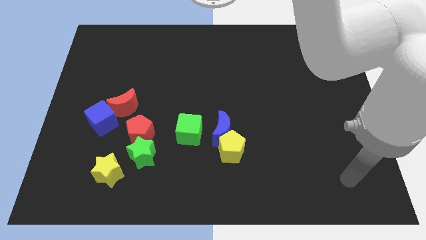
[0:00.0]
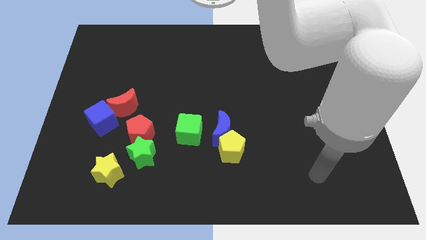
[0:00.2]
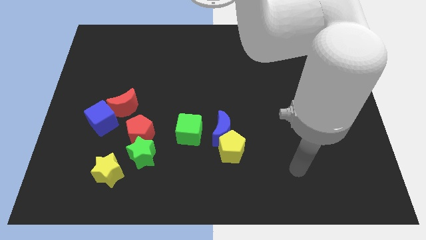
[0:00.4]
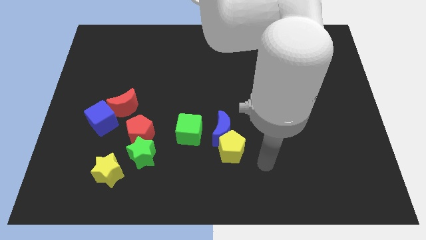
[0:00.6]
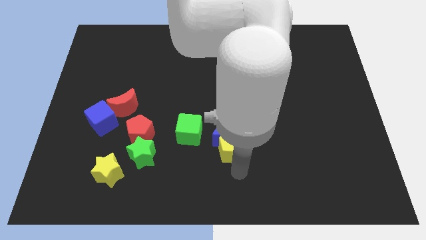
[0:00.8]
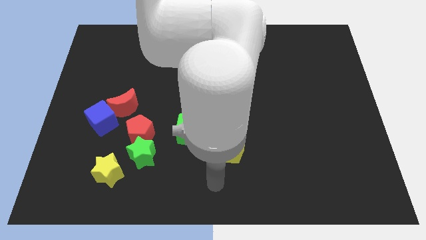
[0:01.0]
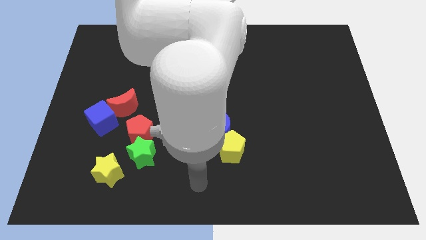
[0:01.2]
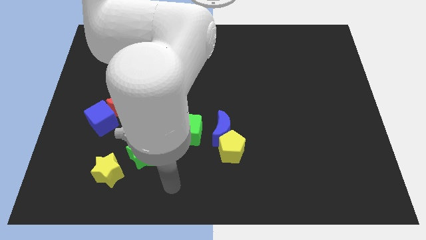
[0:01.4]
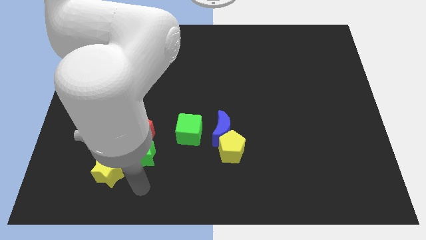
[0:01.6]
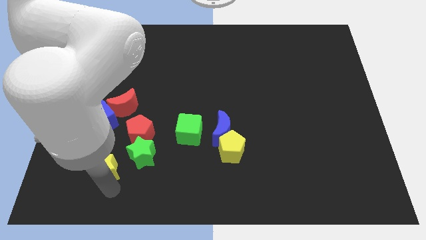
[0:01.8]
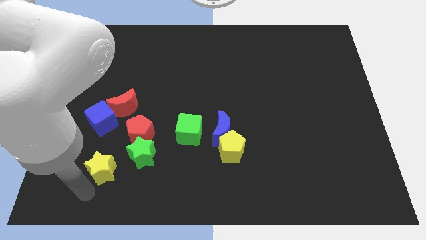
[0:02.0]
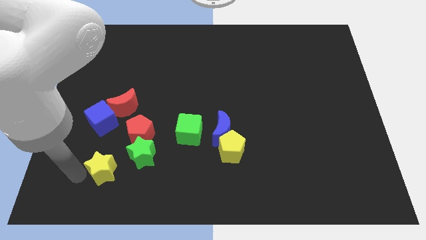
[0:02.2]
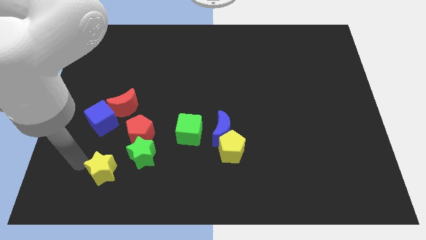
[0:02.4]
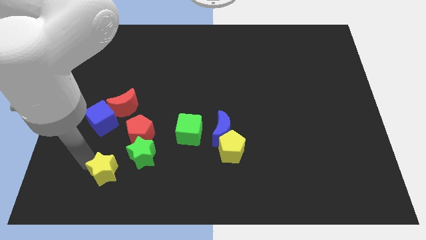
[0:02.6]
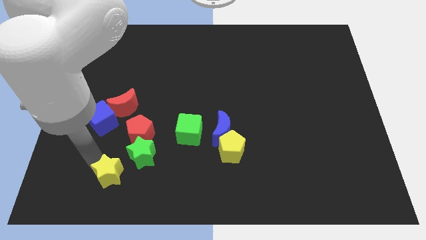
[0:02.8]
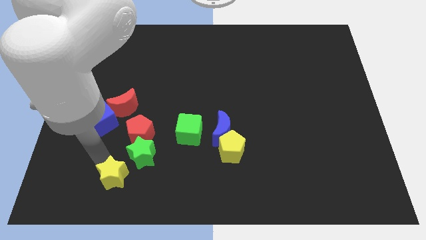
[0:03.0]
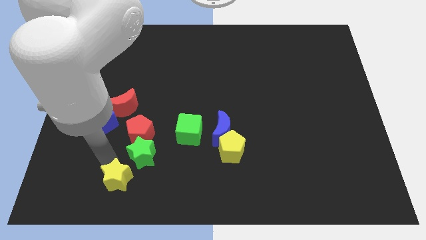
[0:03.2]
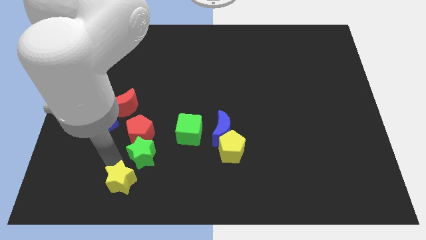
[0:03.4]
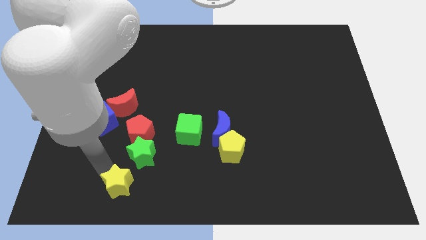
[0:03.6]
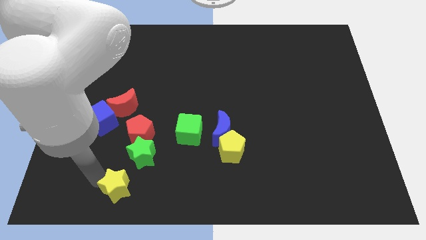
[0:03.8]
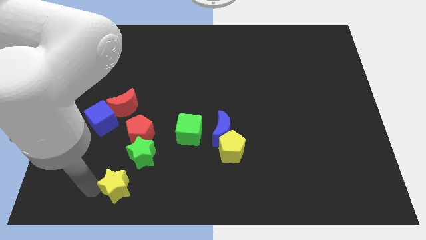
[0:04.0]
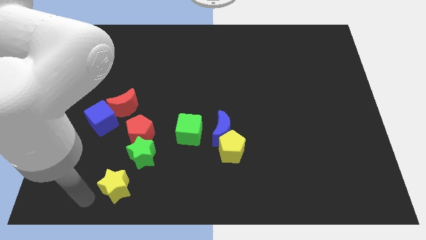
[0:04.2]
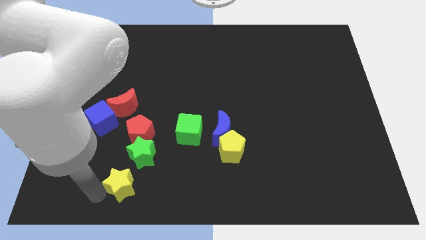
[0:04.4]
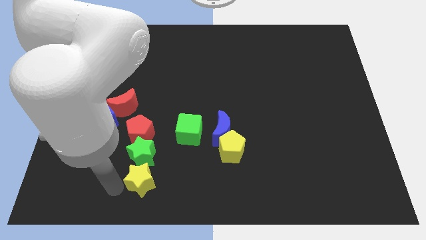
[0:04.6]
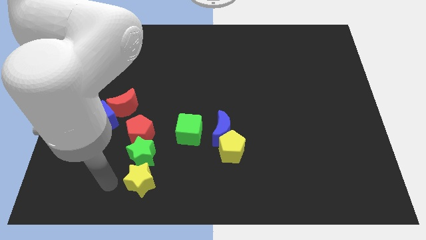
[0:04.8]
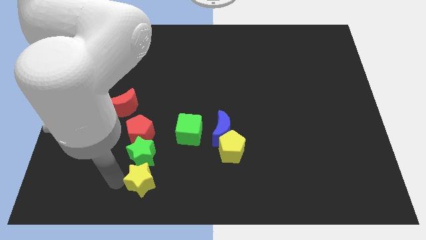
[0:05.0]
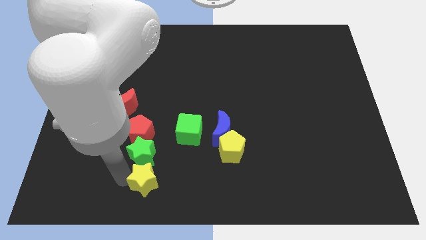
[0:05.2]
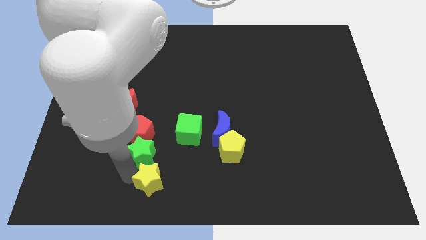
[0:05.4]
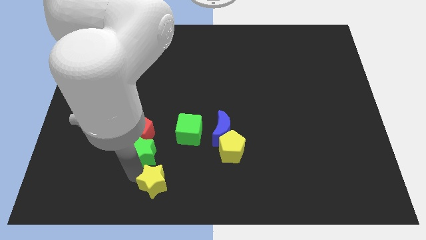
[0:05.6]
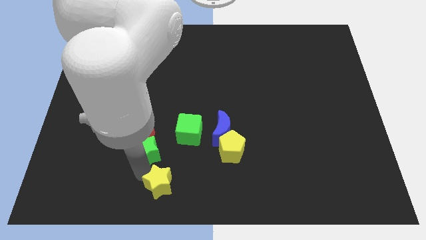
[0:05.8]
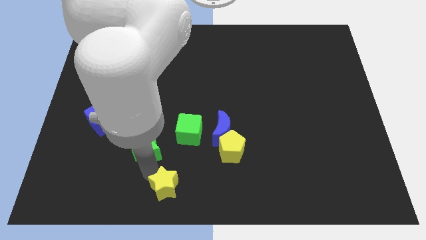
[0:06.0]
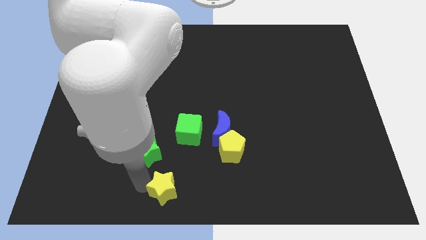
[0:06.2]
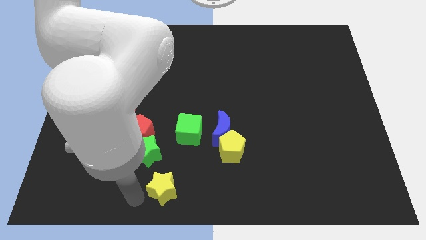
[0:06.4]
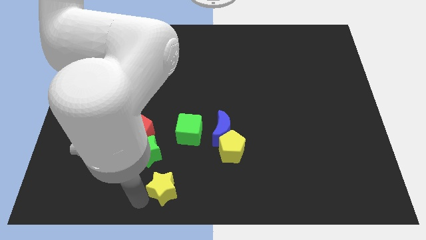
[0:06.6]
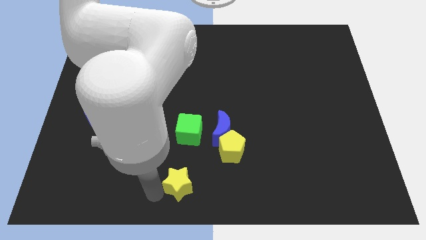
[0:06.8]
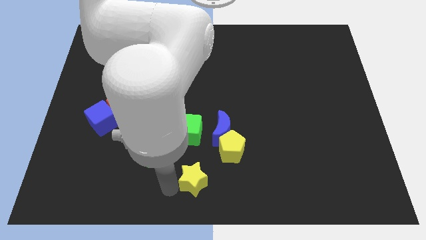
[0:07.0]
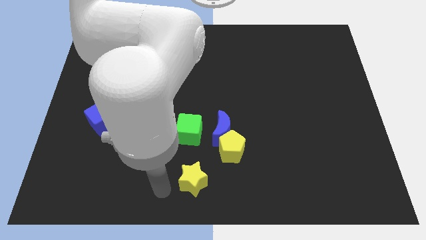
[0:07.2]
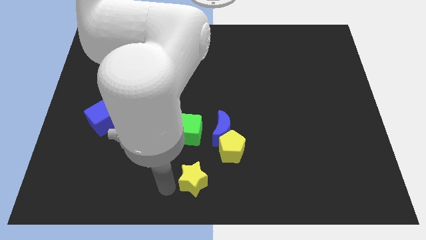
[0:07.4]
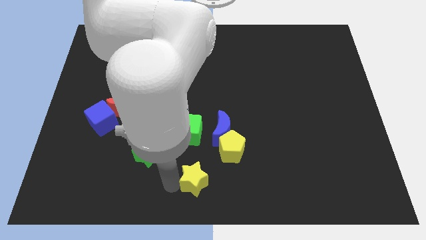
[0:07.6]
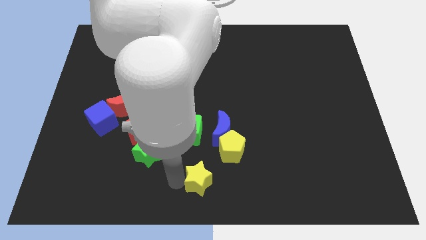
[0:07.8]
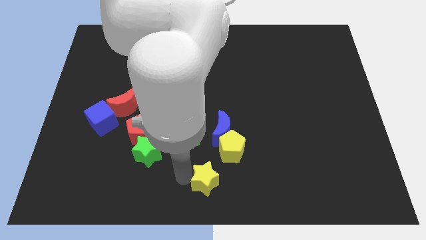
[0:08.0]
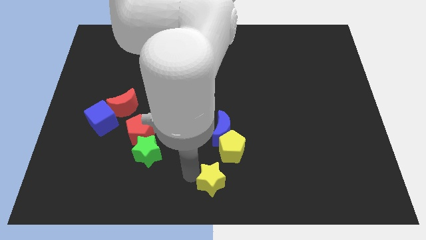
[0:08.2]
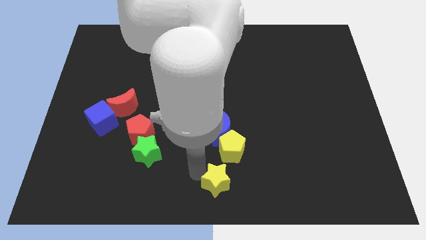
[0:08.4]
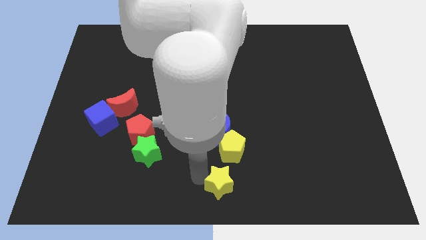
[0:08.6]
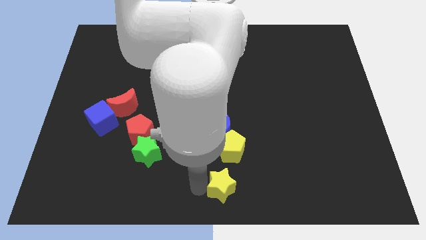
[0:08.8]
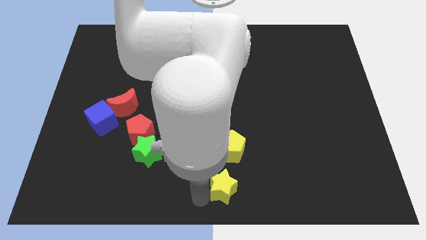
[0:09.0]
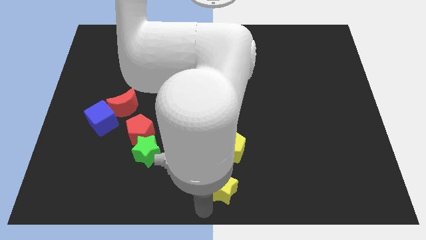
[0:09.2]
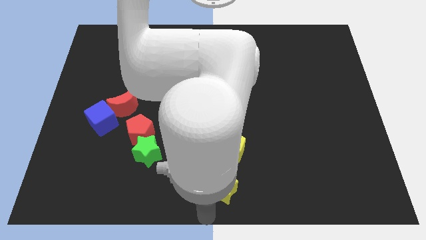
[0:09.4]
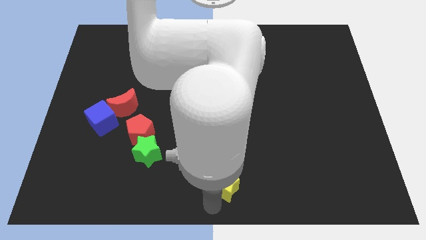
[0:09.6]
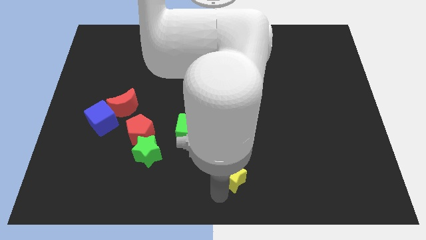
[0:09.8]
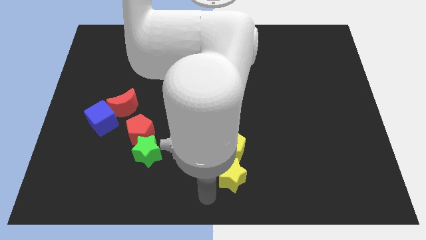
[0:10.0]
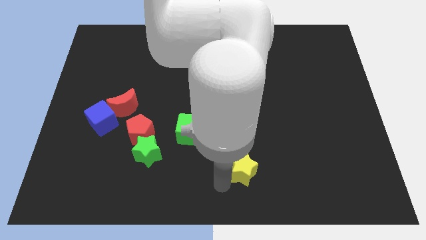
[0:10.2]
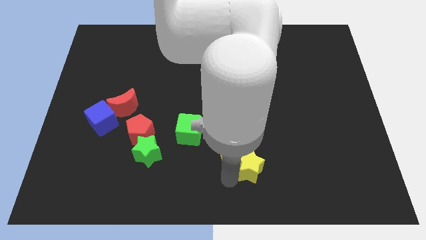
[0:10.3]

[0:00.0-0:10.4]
push the yellow star to the right of the yellow pentagon

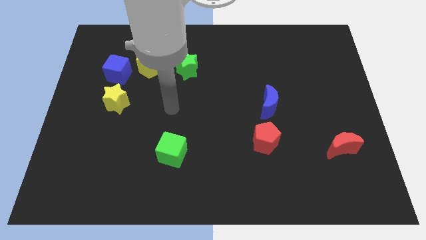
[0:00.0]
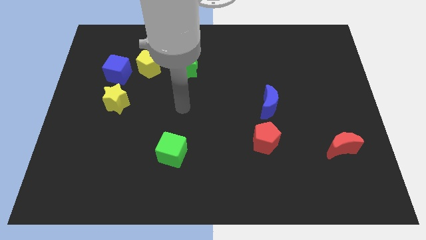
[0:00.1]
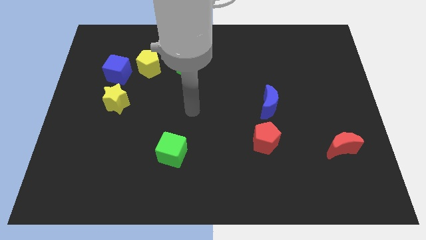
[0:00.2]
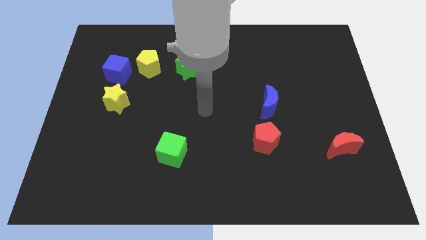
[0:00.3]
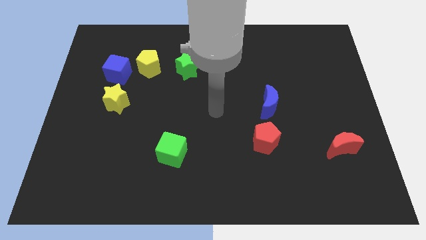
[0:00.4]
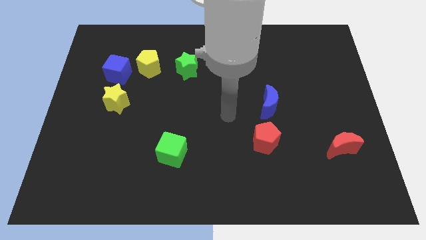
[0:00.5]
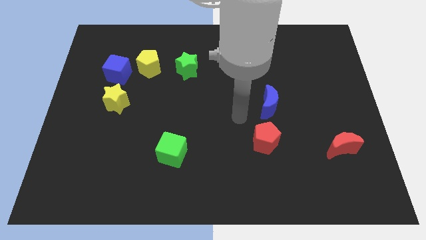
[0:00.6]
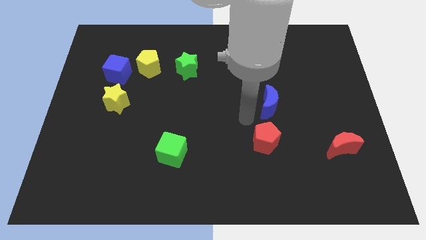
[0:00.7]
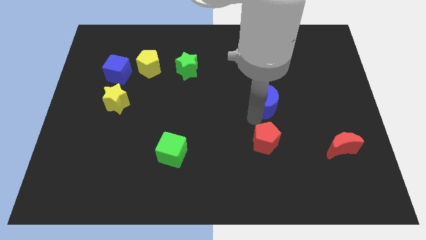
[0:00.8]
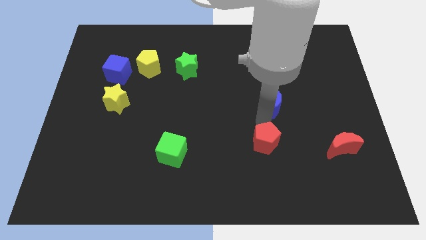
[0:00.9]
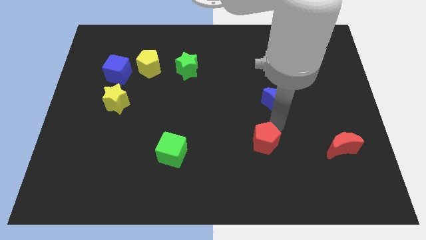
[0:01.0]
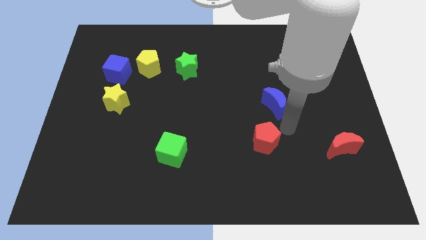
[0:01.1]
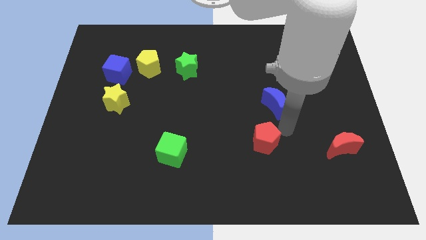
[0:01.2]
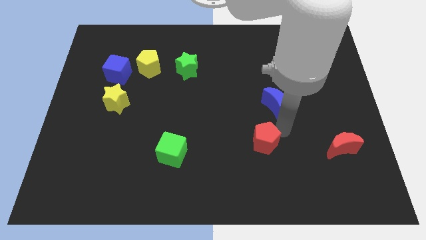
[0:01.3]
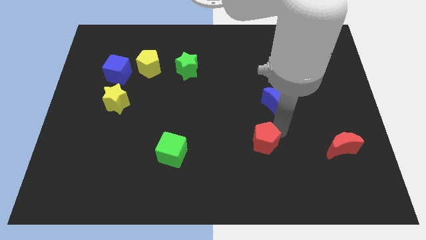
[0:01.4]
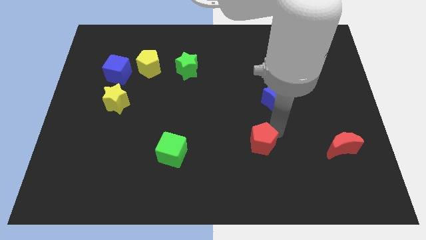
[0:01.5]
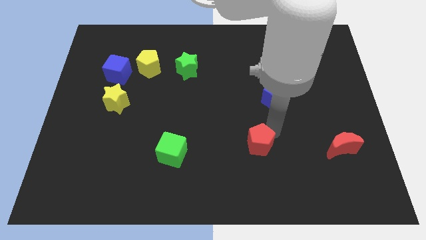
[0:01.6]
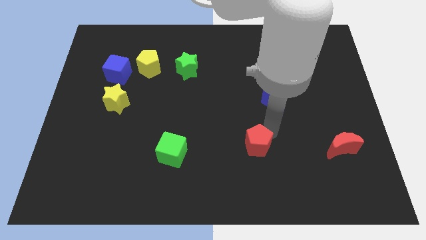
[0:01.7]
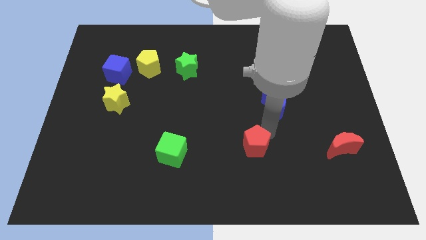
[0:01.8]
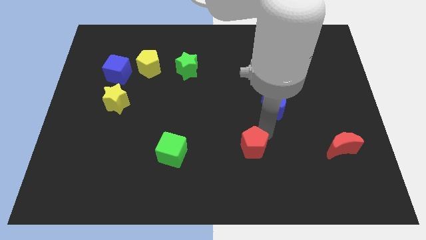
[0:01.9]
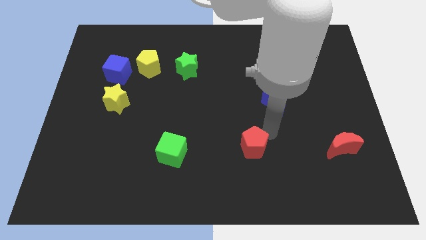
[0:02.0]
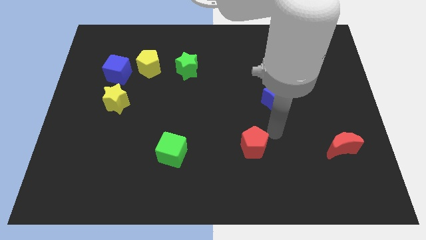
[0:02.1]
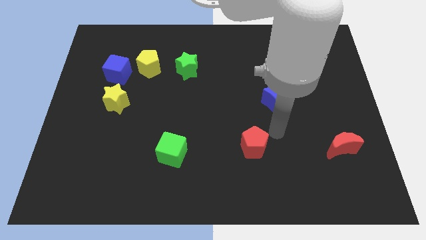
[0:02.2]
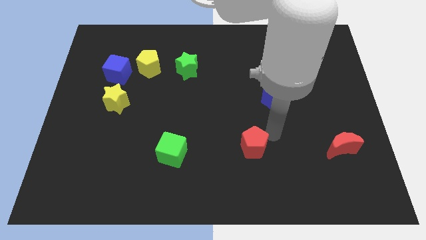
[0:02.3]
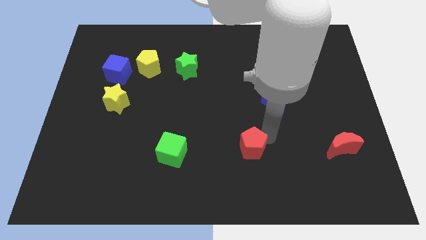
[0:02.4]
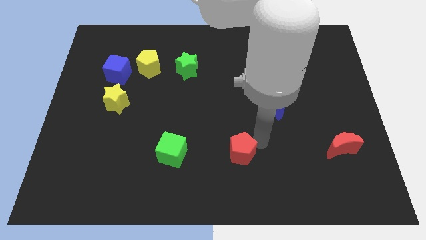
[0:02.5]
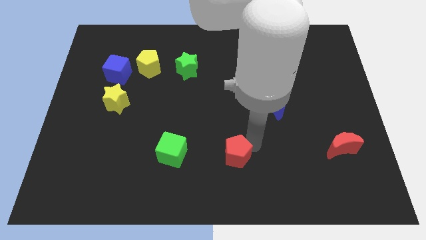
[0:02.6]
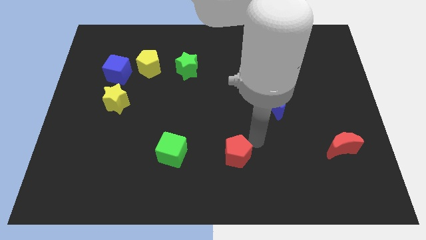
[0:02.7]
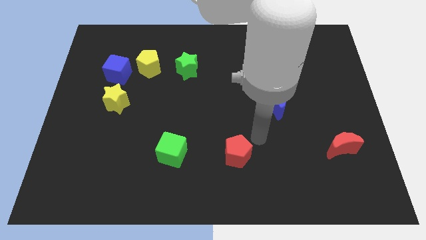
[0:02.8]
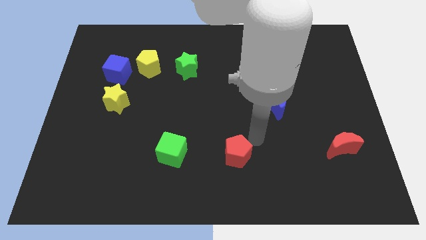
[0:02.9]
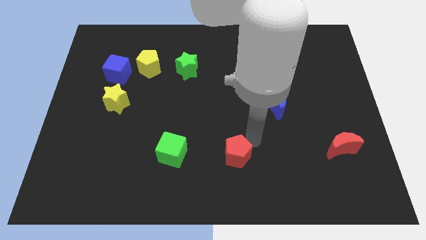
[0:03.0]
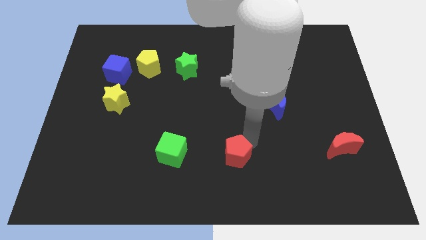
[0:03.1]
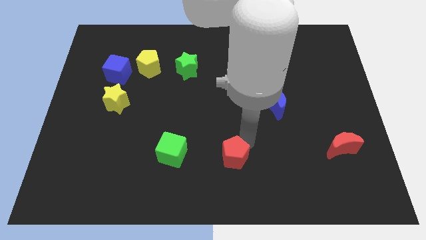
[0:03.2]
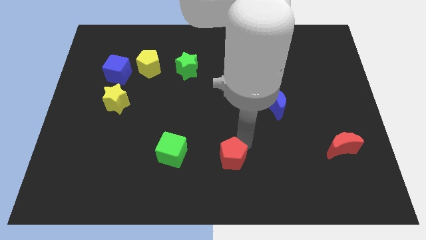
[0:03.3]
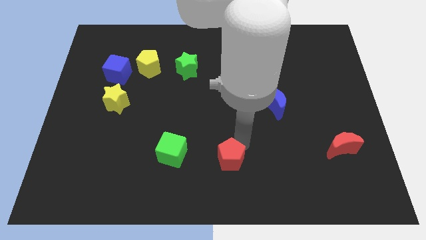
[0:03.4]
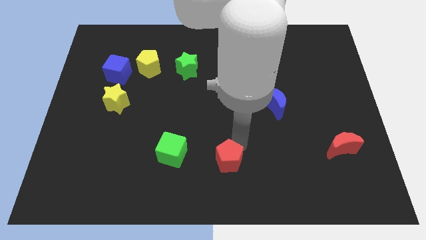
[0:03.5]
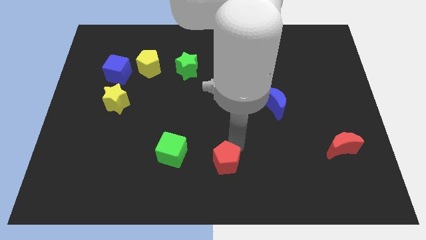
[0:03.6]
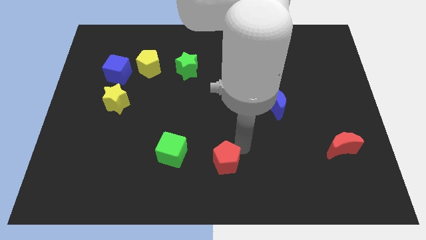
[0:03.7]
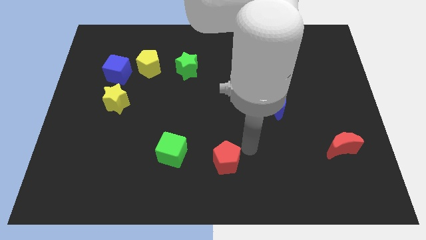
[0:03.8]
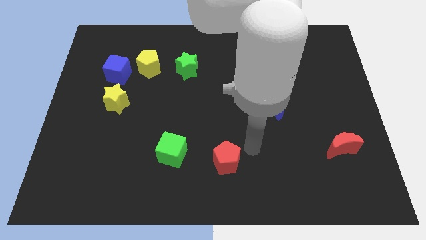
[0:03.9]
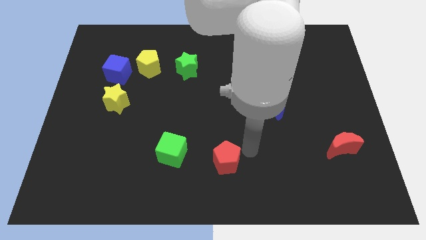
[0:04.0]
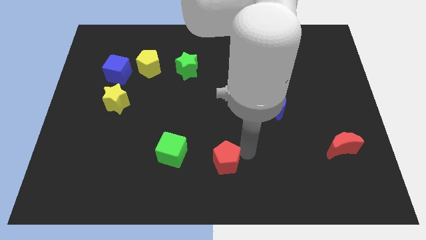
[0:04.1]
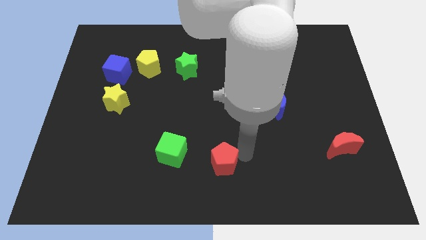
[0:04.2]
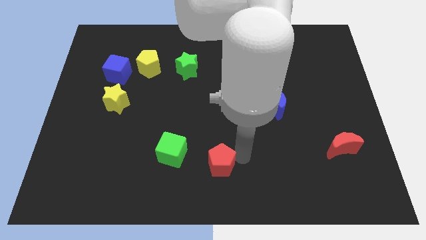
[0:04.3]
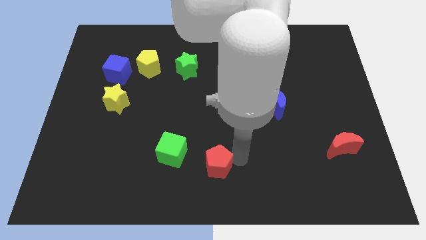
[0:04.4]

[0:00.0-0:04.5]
move the red pentagon diagonally down and to the right of the green cube
